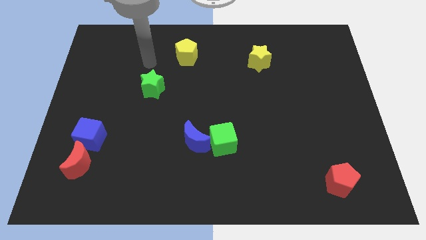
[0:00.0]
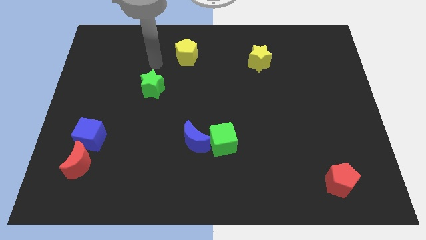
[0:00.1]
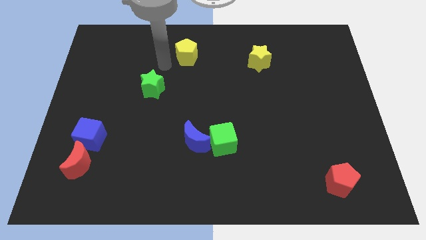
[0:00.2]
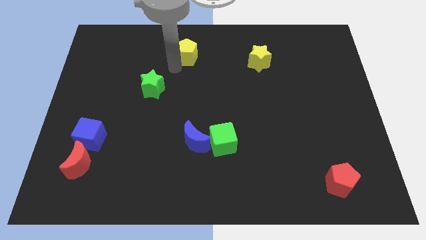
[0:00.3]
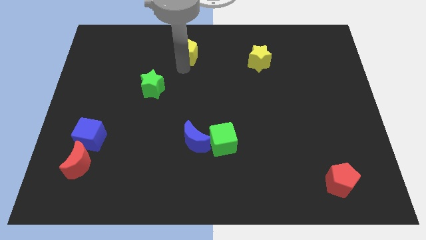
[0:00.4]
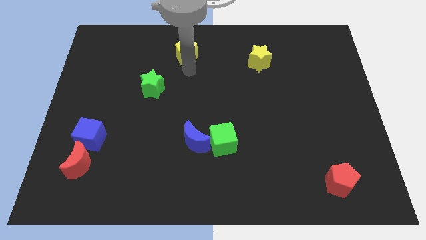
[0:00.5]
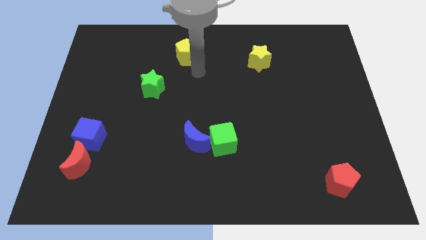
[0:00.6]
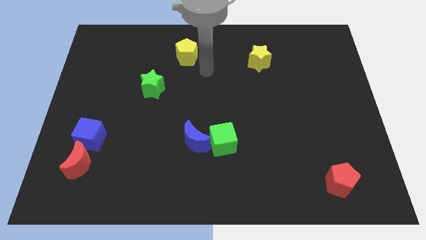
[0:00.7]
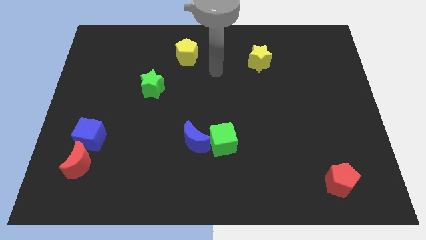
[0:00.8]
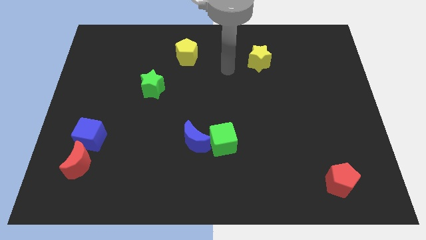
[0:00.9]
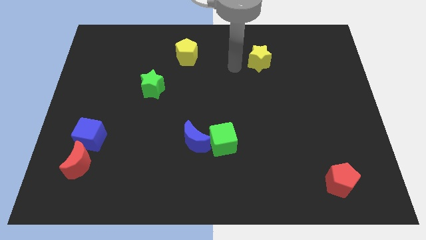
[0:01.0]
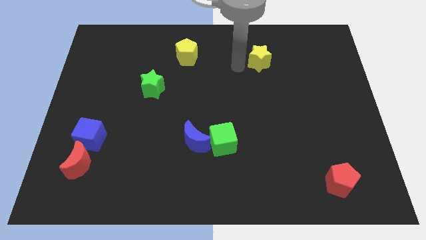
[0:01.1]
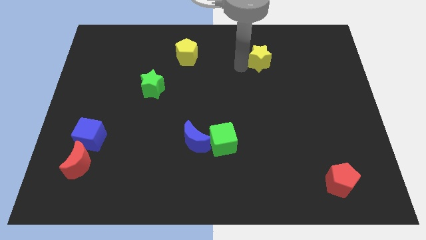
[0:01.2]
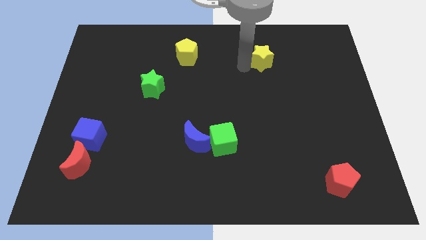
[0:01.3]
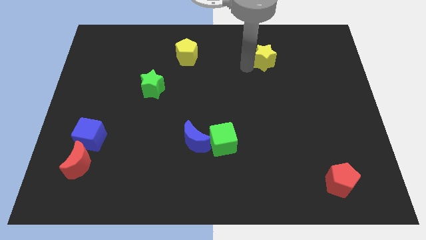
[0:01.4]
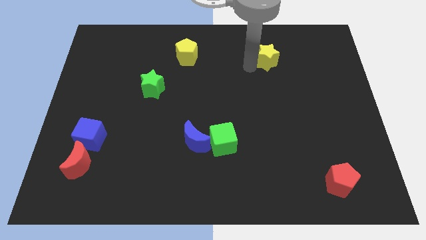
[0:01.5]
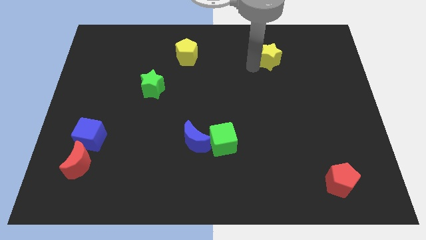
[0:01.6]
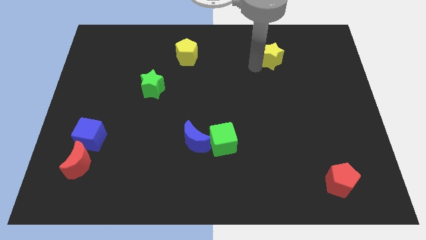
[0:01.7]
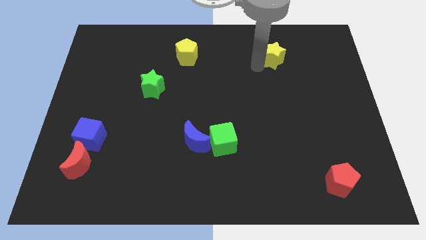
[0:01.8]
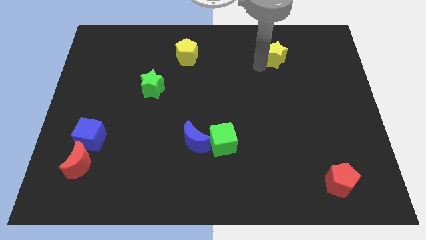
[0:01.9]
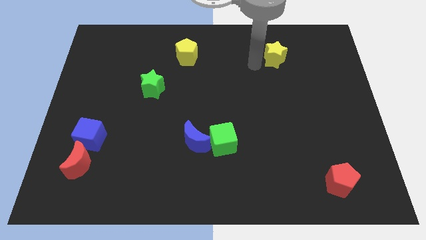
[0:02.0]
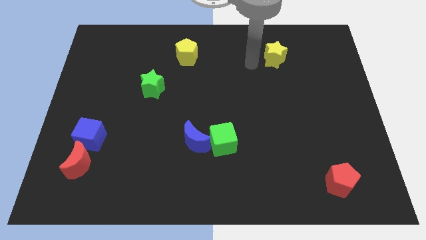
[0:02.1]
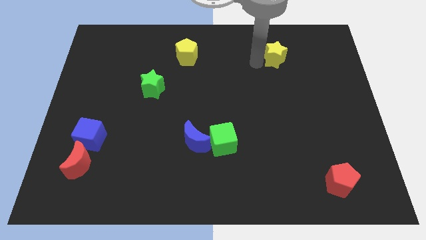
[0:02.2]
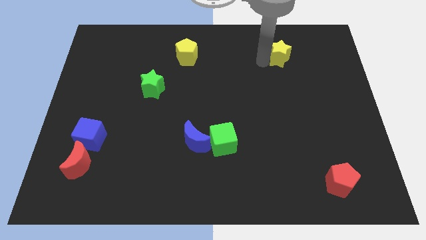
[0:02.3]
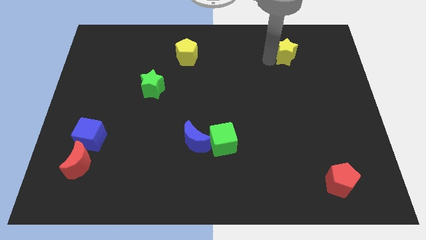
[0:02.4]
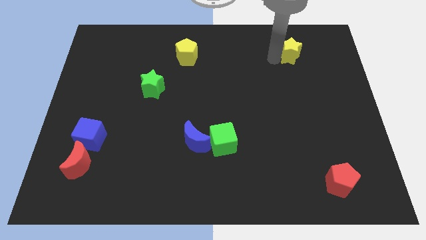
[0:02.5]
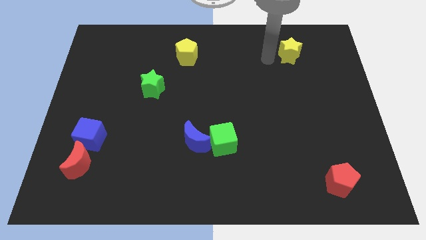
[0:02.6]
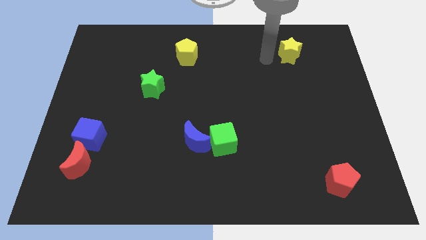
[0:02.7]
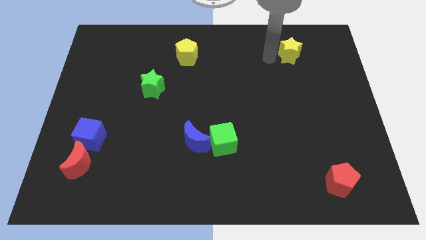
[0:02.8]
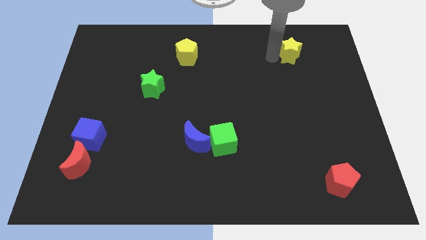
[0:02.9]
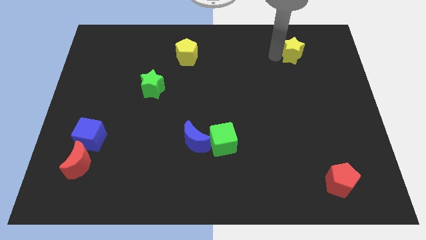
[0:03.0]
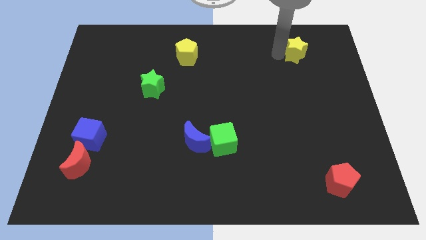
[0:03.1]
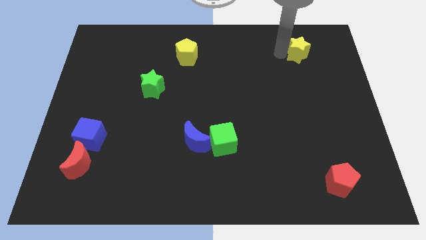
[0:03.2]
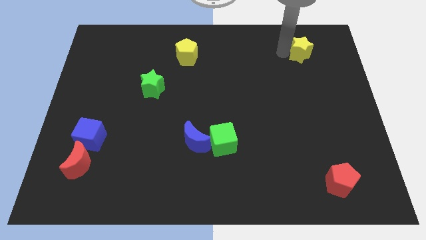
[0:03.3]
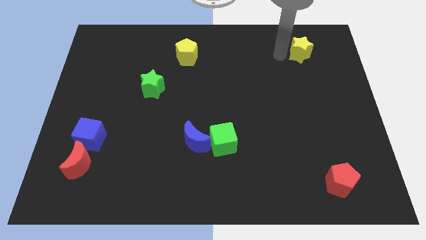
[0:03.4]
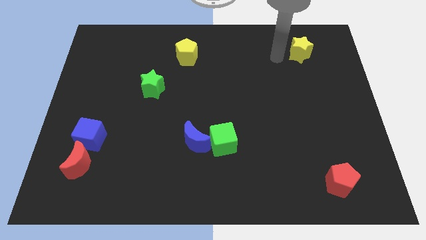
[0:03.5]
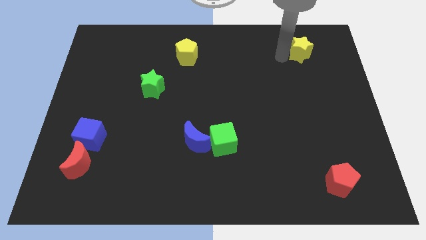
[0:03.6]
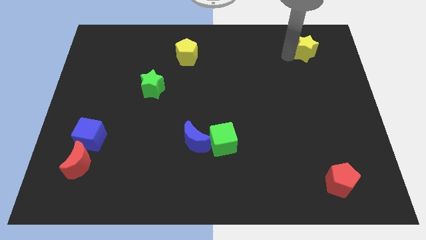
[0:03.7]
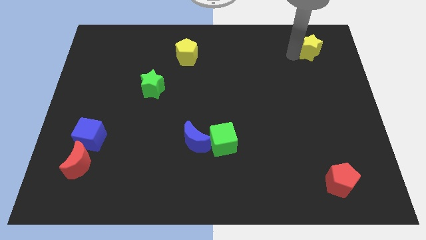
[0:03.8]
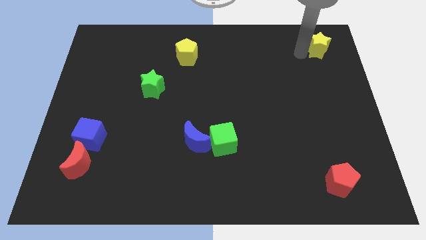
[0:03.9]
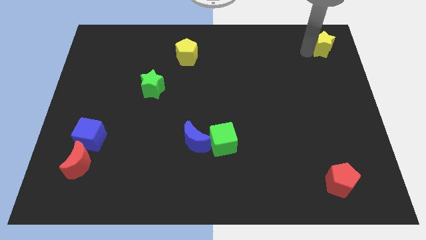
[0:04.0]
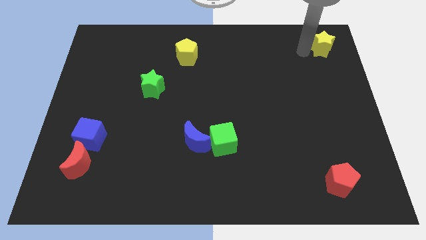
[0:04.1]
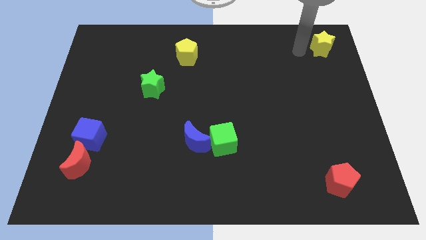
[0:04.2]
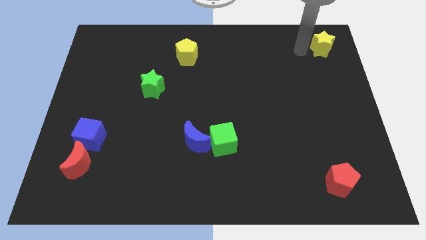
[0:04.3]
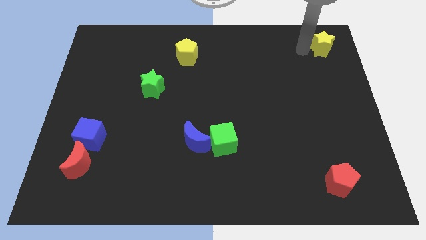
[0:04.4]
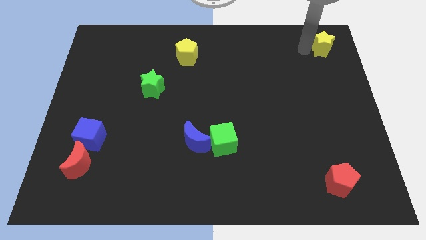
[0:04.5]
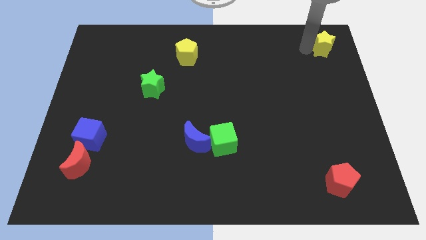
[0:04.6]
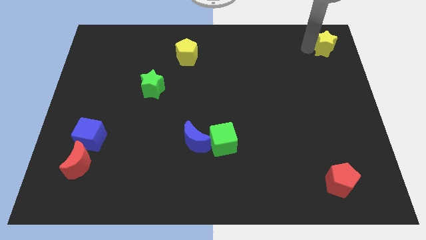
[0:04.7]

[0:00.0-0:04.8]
push the yellow star to the top right

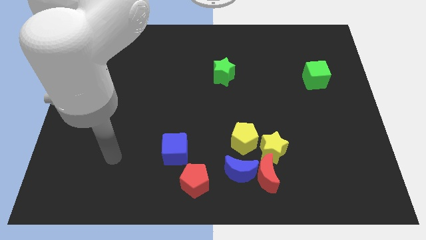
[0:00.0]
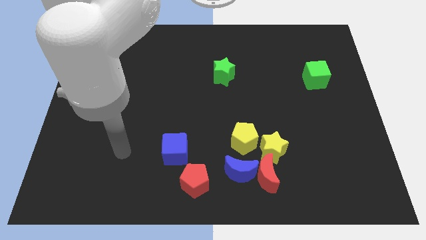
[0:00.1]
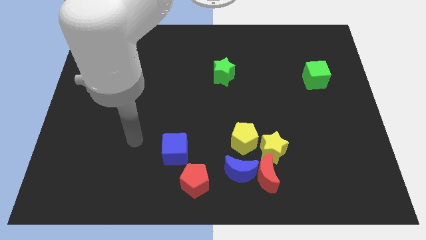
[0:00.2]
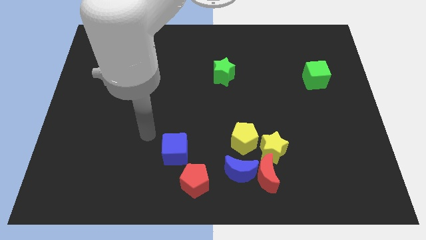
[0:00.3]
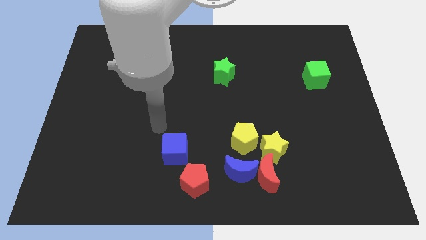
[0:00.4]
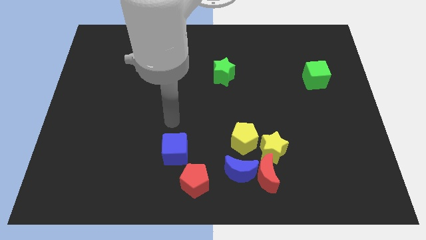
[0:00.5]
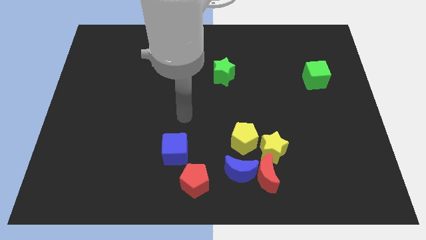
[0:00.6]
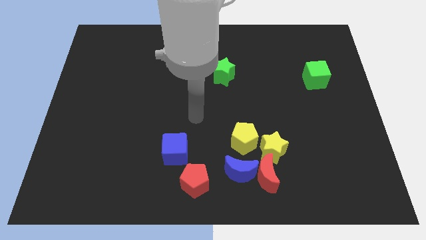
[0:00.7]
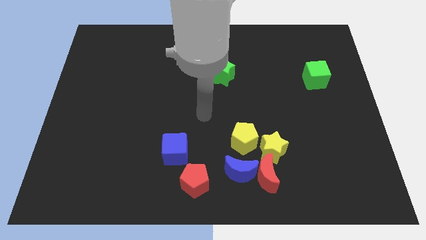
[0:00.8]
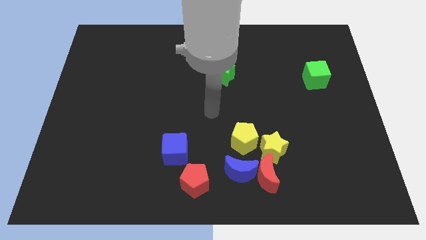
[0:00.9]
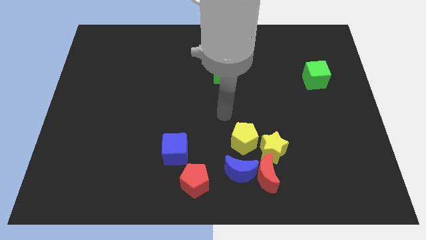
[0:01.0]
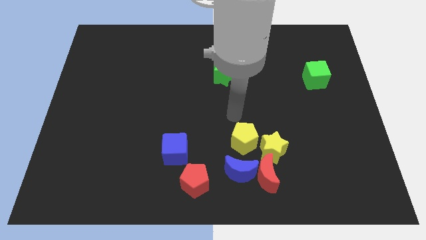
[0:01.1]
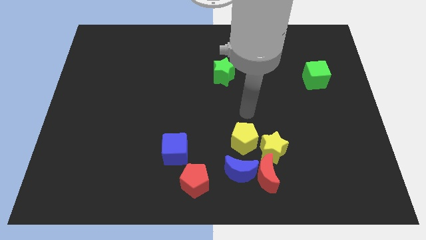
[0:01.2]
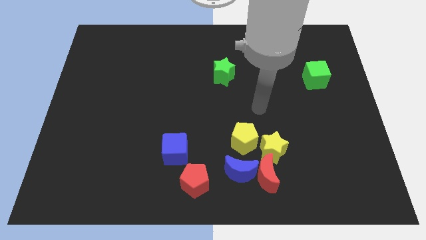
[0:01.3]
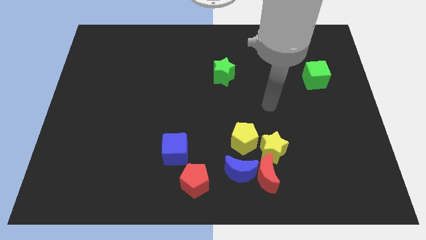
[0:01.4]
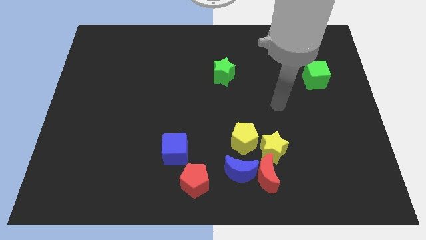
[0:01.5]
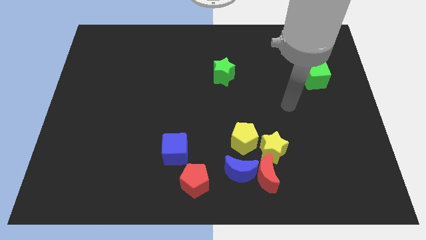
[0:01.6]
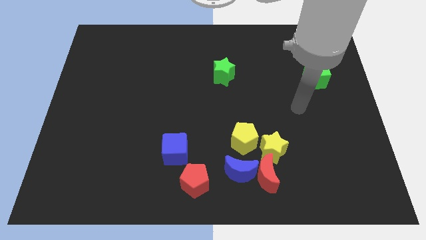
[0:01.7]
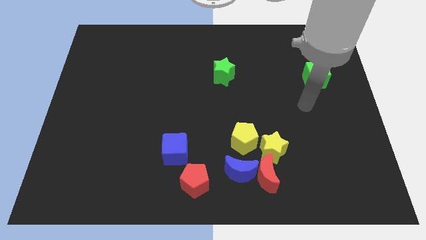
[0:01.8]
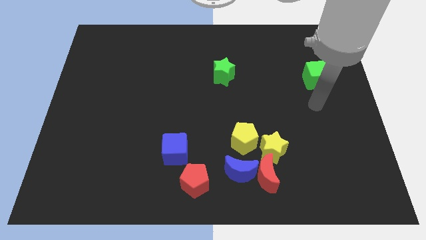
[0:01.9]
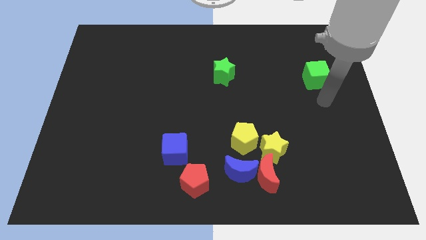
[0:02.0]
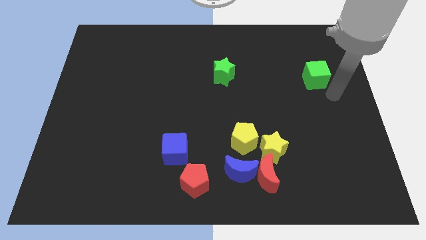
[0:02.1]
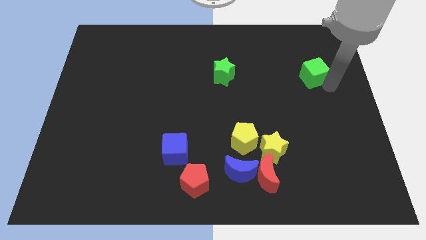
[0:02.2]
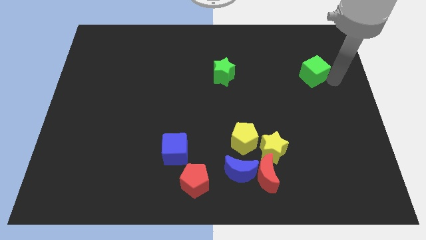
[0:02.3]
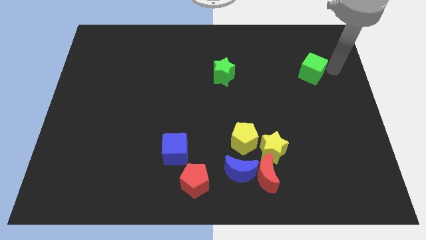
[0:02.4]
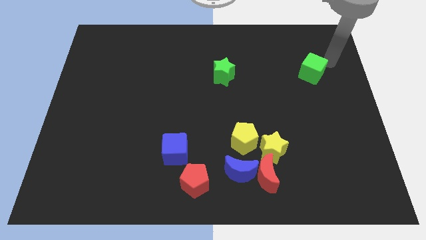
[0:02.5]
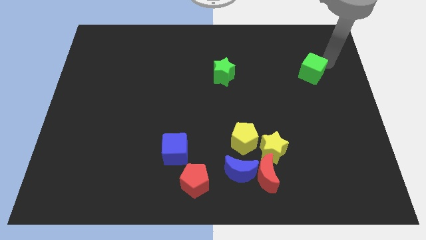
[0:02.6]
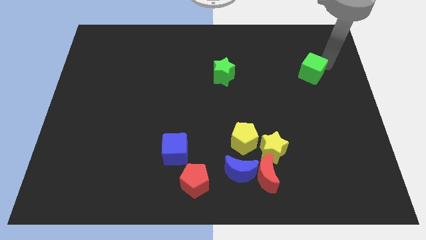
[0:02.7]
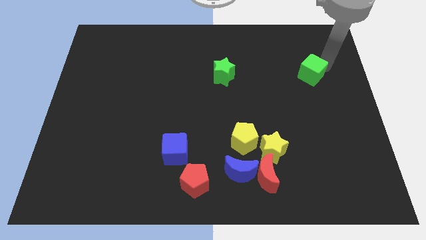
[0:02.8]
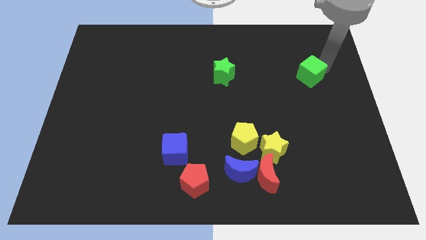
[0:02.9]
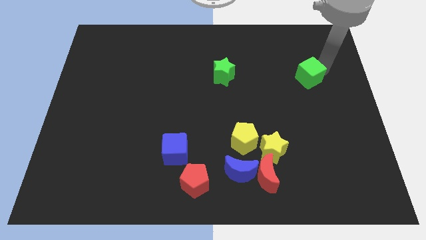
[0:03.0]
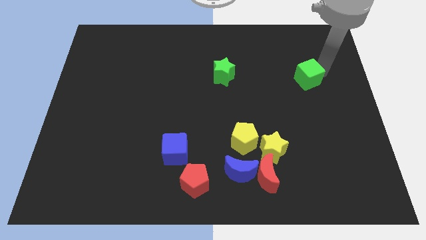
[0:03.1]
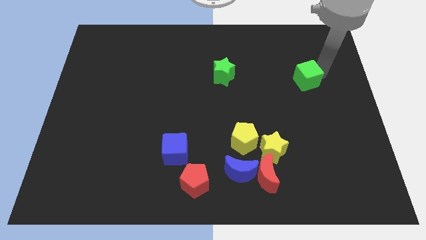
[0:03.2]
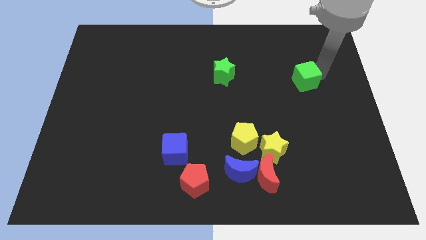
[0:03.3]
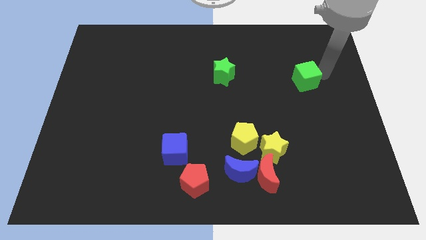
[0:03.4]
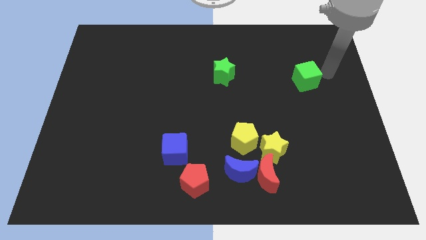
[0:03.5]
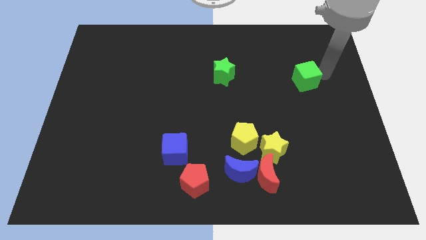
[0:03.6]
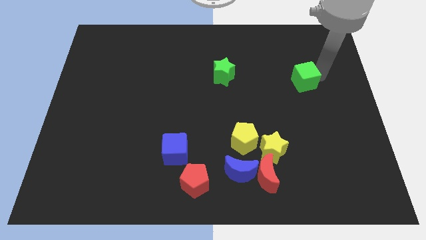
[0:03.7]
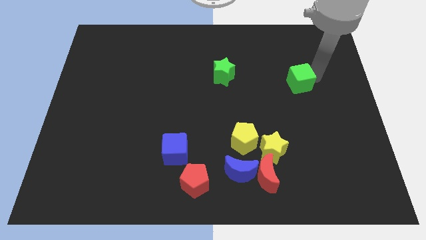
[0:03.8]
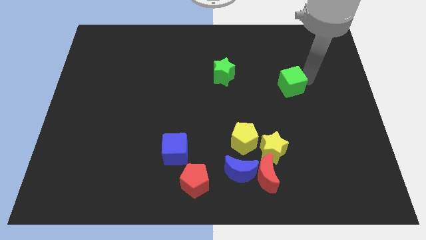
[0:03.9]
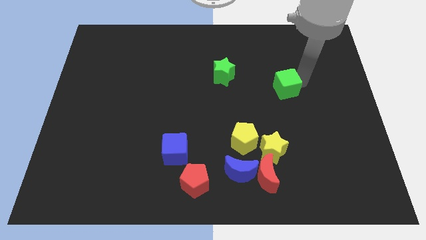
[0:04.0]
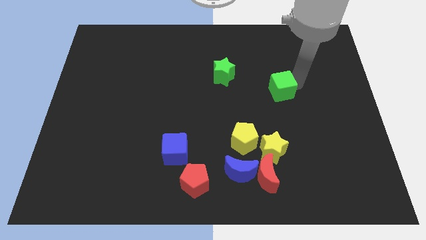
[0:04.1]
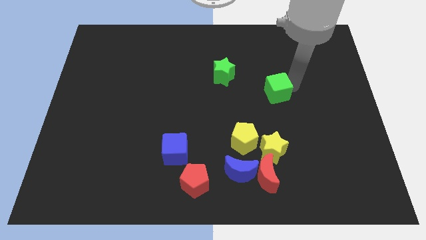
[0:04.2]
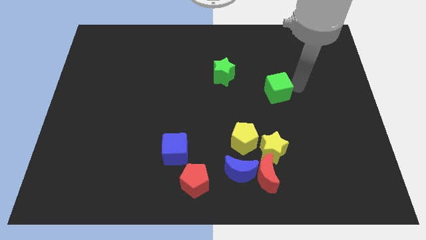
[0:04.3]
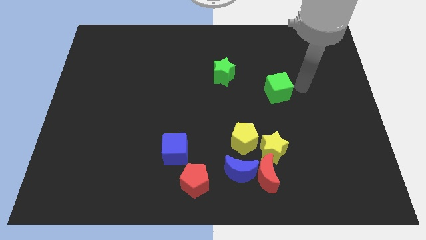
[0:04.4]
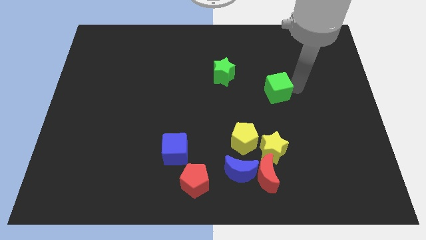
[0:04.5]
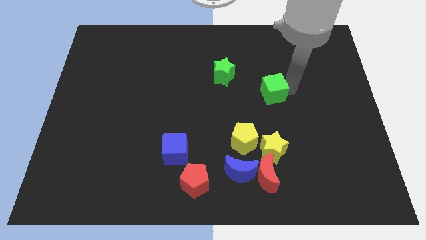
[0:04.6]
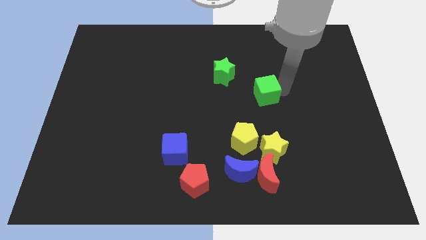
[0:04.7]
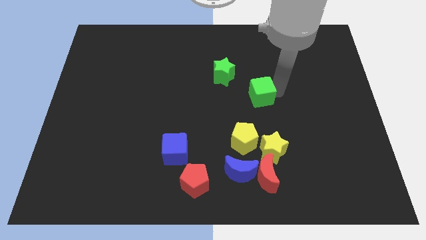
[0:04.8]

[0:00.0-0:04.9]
slide the green cube to the center
